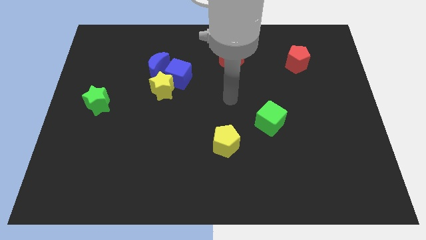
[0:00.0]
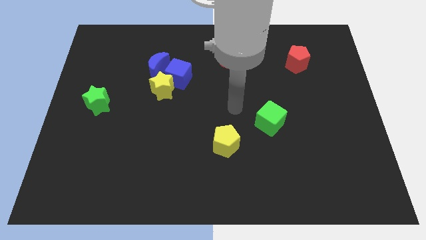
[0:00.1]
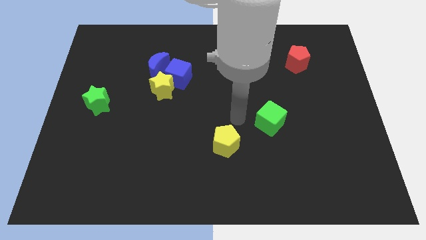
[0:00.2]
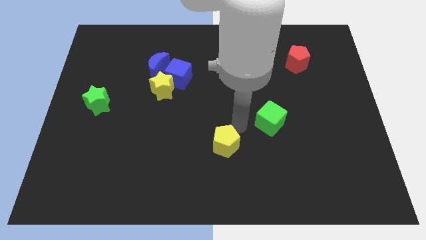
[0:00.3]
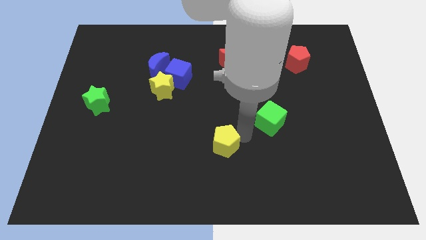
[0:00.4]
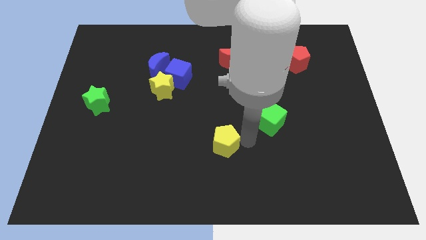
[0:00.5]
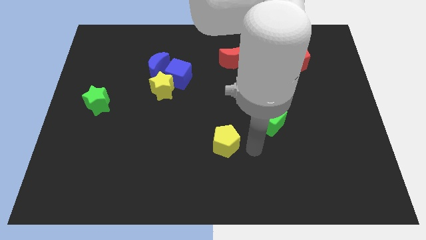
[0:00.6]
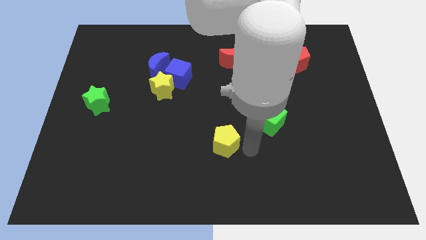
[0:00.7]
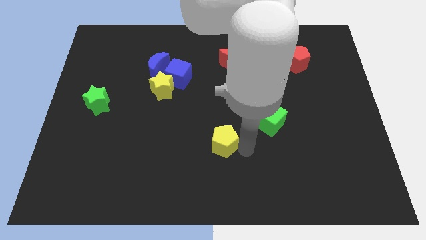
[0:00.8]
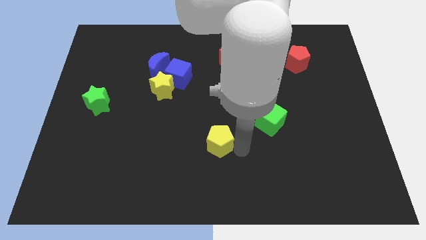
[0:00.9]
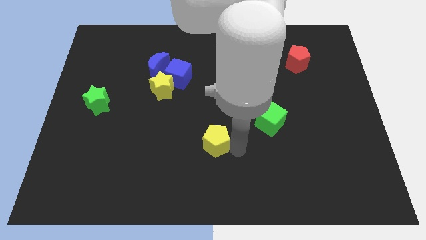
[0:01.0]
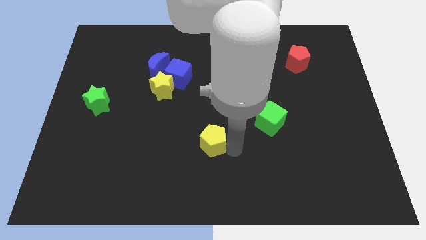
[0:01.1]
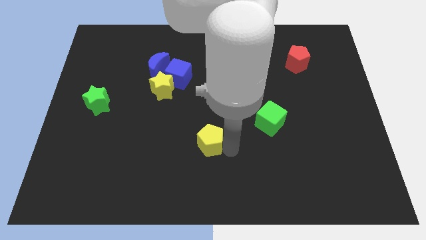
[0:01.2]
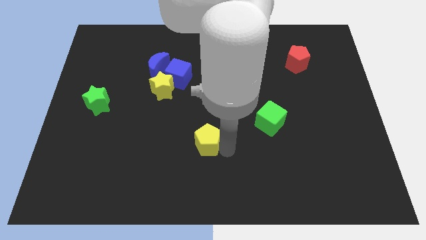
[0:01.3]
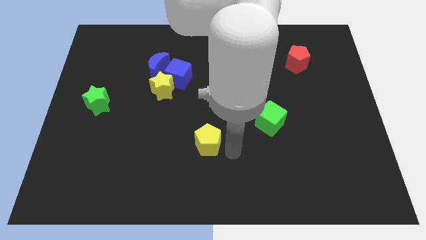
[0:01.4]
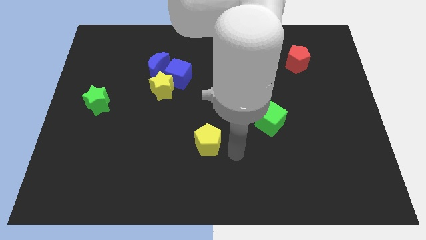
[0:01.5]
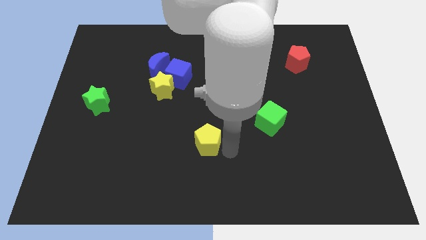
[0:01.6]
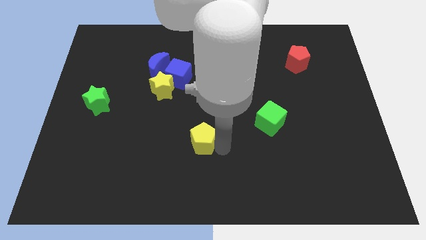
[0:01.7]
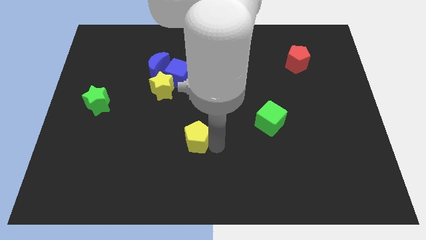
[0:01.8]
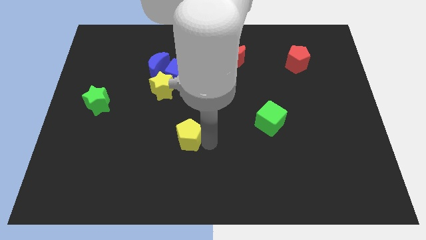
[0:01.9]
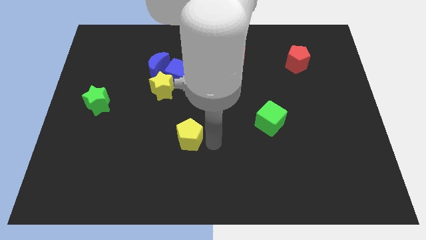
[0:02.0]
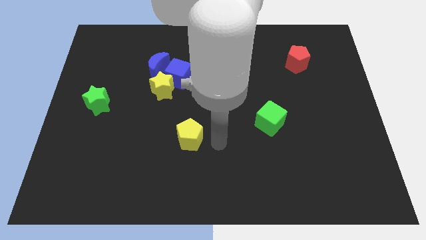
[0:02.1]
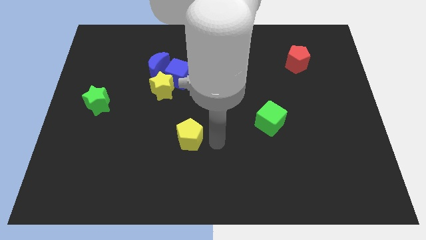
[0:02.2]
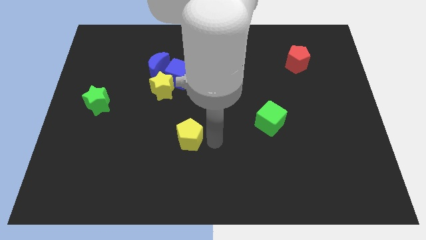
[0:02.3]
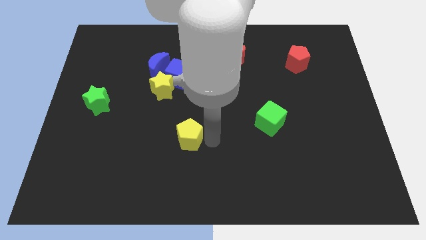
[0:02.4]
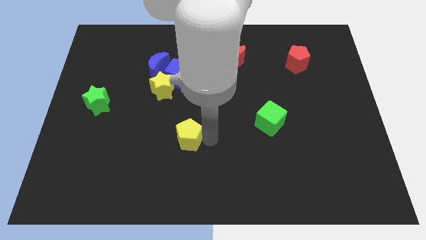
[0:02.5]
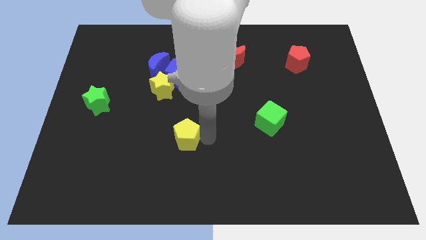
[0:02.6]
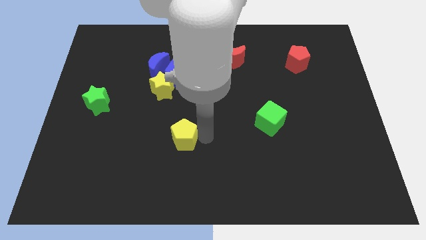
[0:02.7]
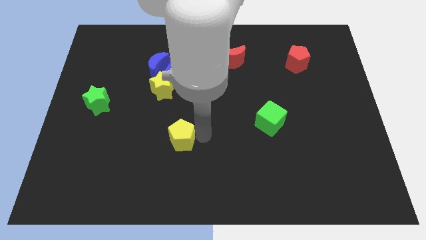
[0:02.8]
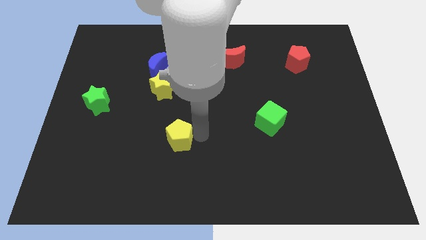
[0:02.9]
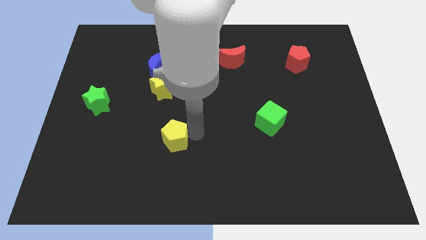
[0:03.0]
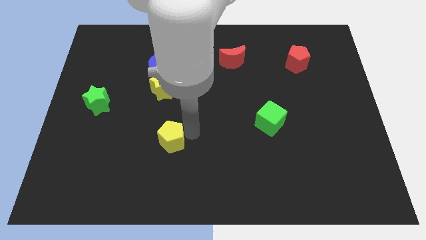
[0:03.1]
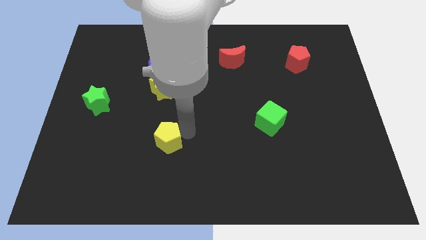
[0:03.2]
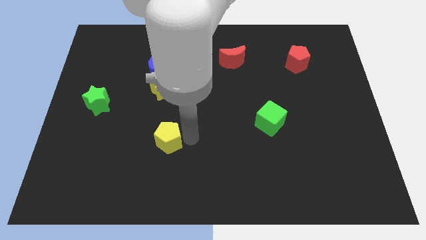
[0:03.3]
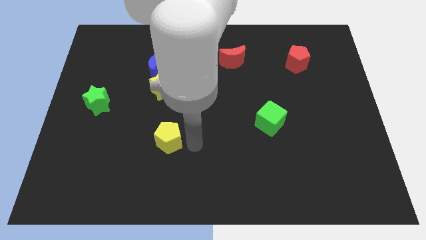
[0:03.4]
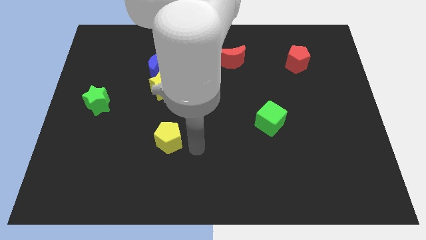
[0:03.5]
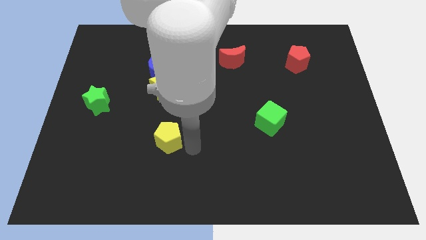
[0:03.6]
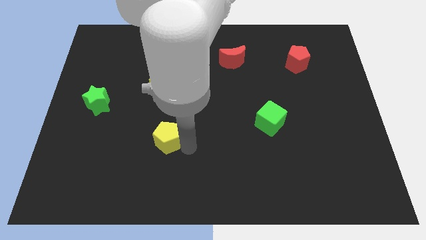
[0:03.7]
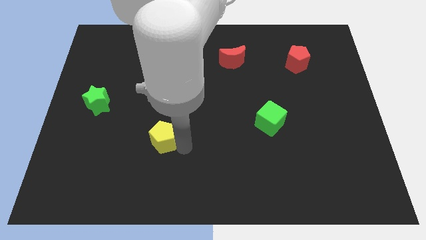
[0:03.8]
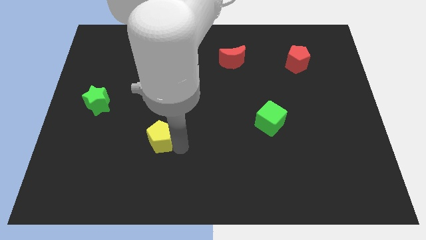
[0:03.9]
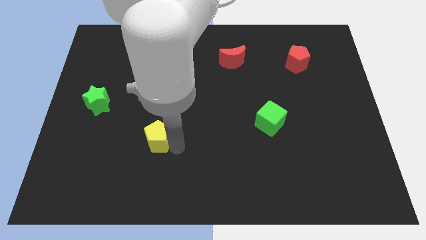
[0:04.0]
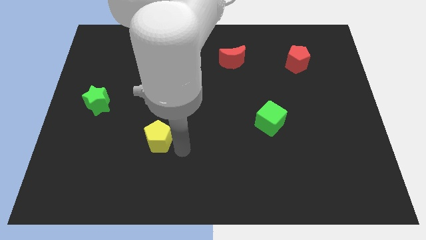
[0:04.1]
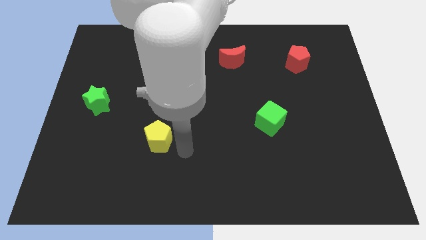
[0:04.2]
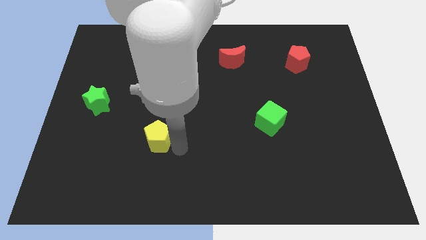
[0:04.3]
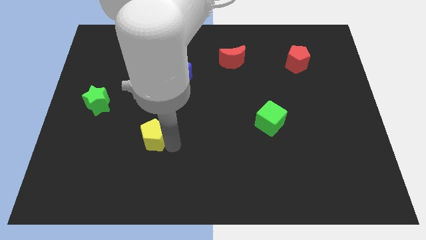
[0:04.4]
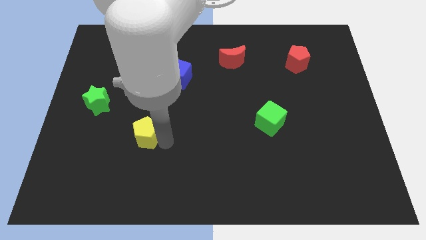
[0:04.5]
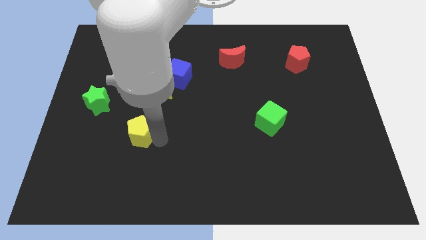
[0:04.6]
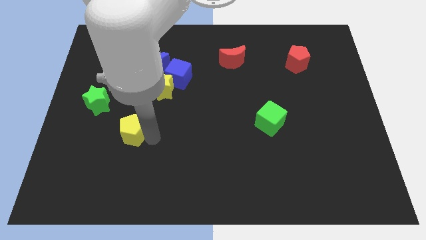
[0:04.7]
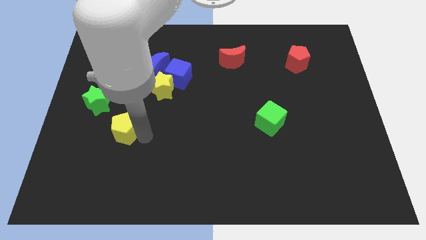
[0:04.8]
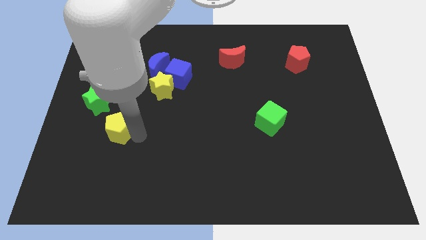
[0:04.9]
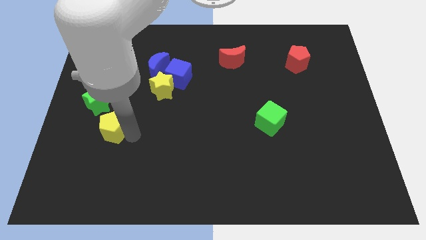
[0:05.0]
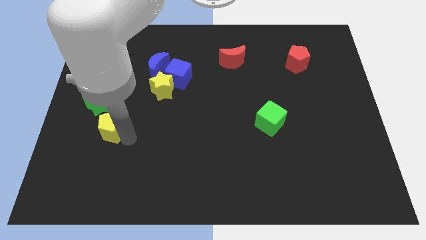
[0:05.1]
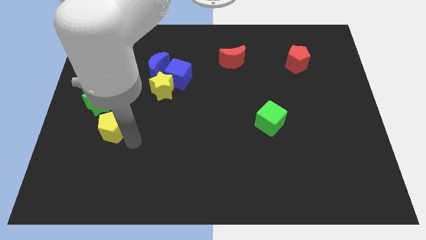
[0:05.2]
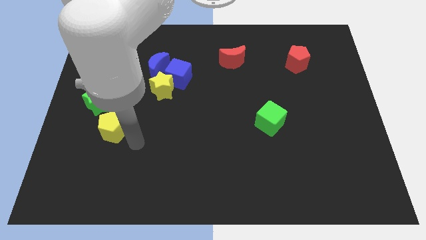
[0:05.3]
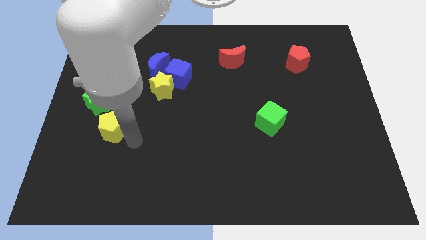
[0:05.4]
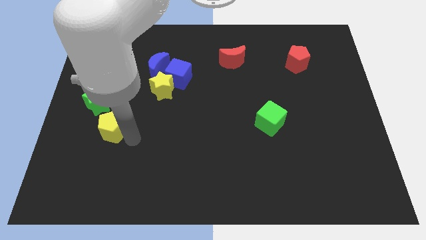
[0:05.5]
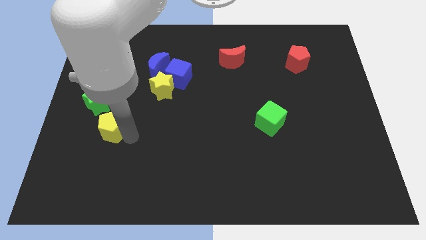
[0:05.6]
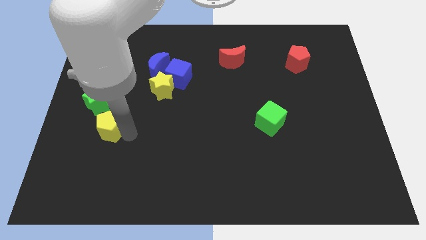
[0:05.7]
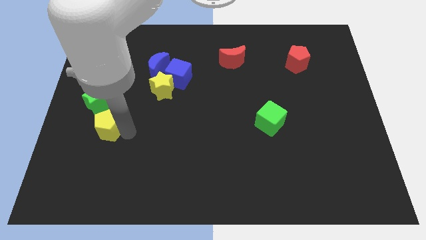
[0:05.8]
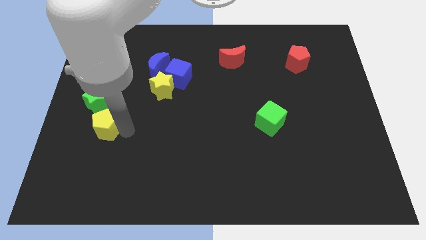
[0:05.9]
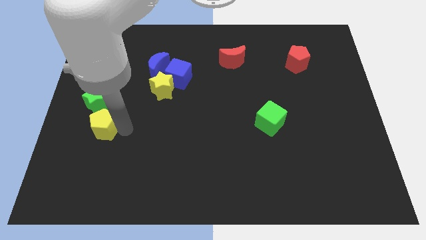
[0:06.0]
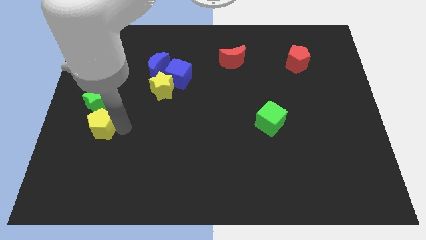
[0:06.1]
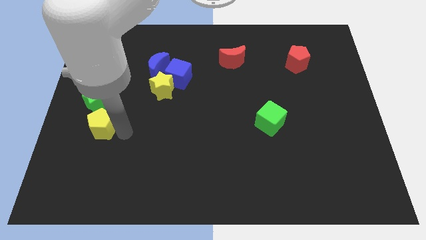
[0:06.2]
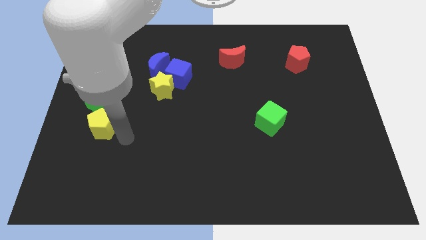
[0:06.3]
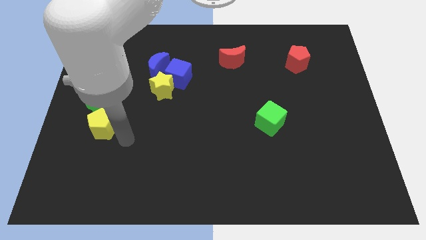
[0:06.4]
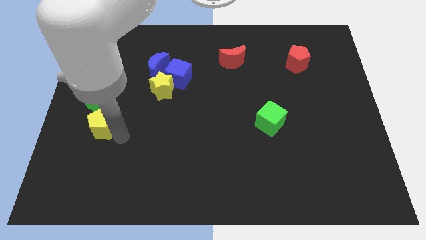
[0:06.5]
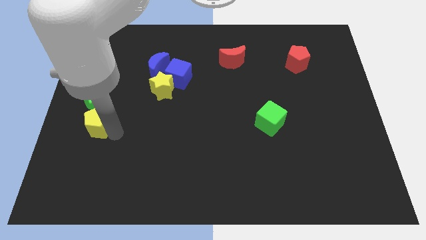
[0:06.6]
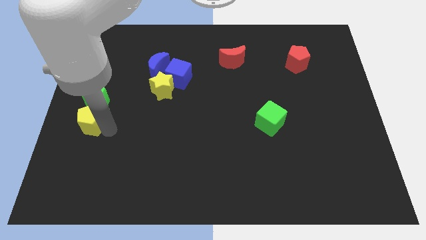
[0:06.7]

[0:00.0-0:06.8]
put the yellow pentagon to the center left
